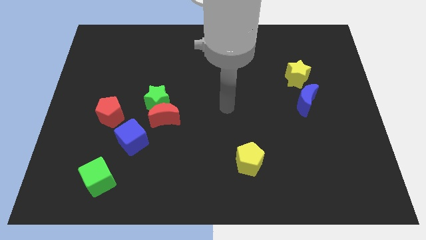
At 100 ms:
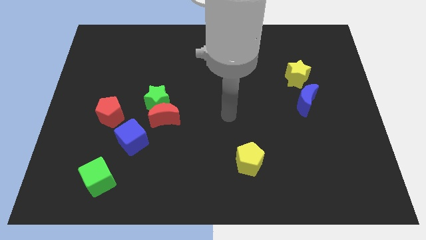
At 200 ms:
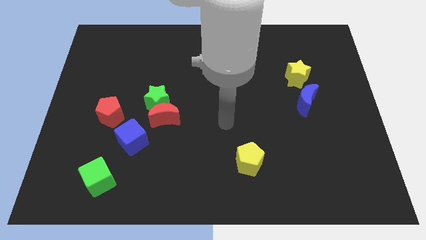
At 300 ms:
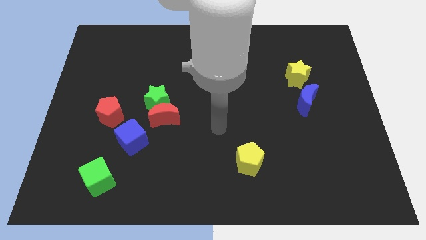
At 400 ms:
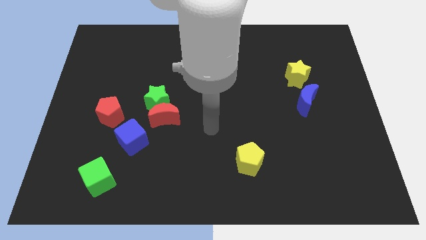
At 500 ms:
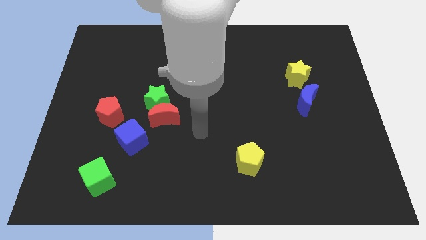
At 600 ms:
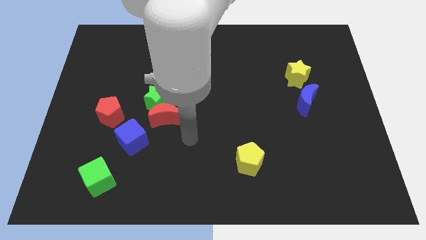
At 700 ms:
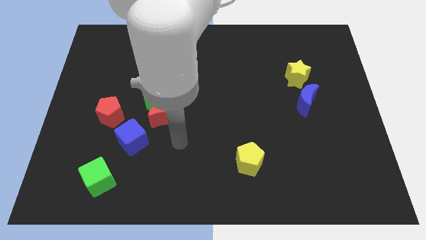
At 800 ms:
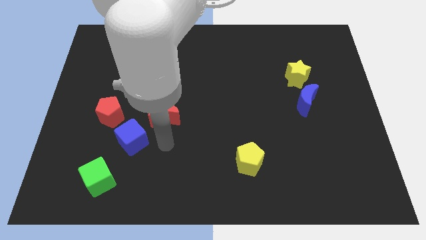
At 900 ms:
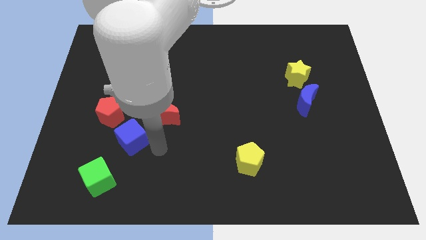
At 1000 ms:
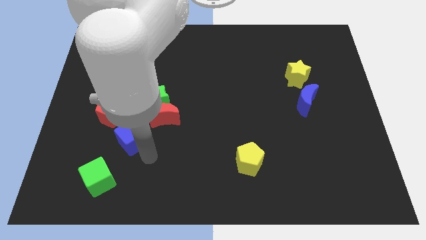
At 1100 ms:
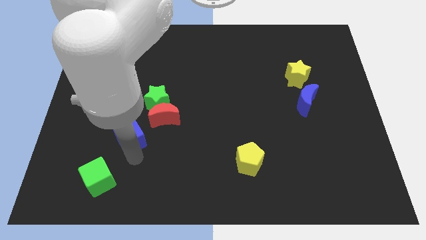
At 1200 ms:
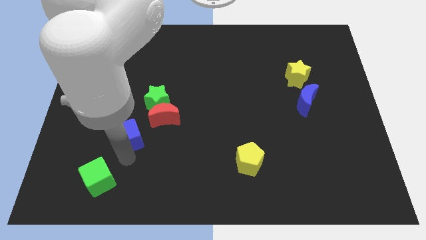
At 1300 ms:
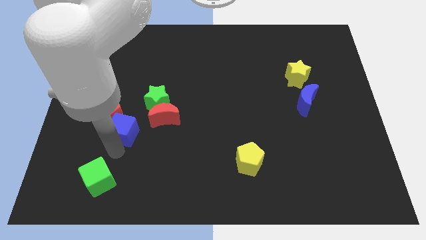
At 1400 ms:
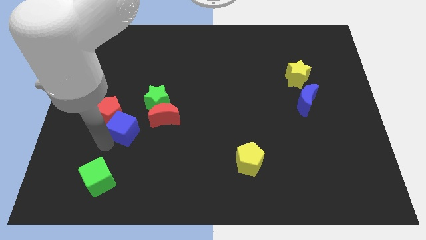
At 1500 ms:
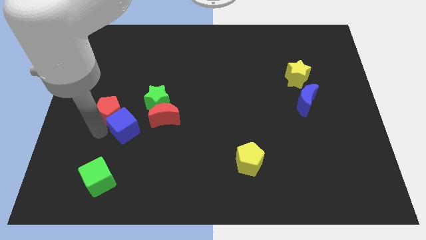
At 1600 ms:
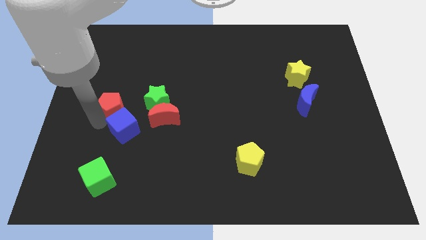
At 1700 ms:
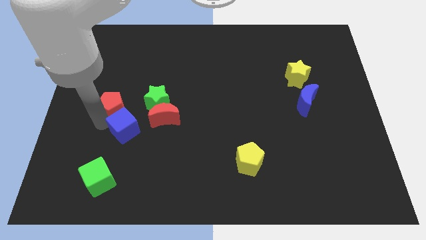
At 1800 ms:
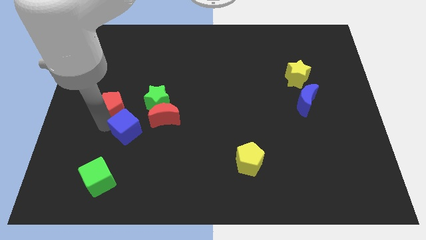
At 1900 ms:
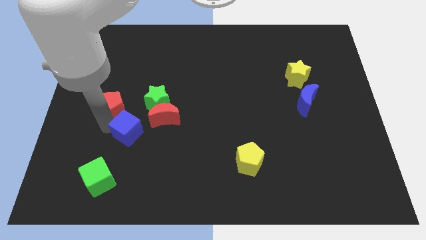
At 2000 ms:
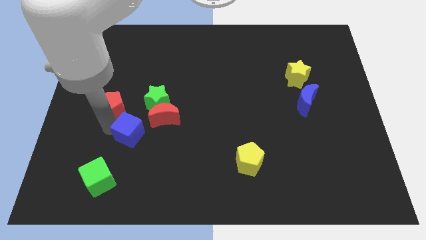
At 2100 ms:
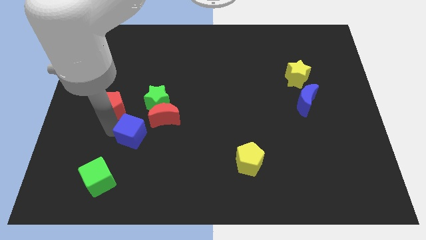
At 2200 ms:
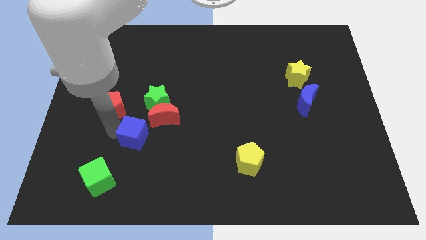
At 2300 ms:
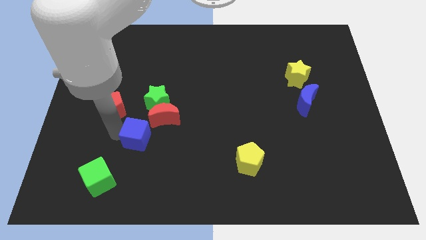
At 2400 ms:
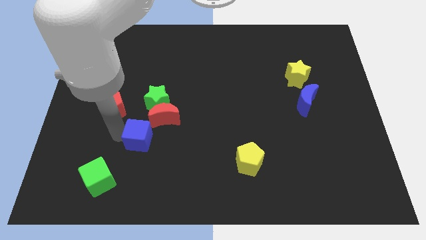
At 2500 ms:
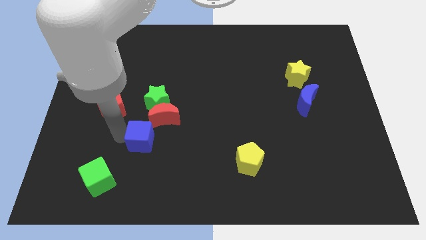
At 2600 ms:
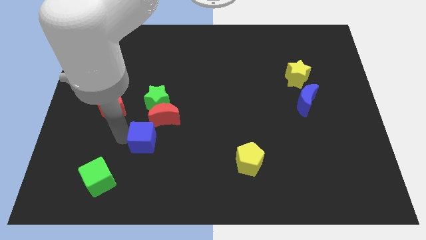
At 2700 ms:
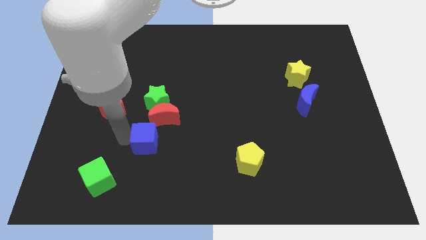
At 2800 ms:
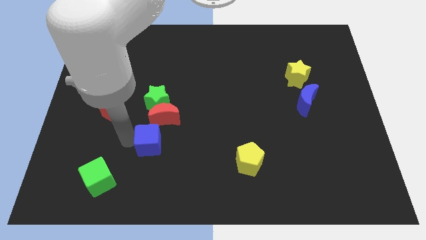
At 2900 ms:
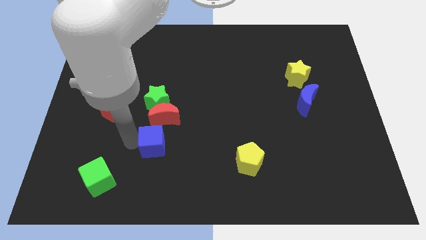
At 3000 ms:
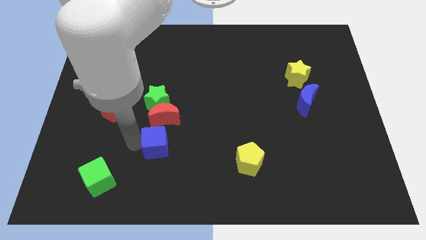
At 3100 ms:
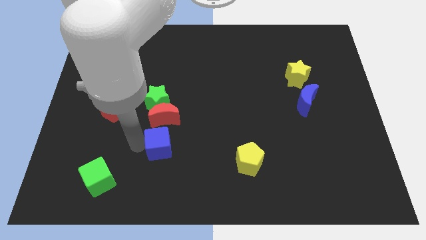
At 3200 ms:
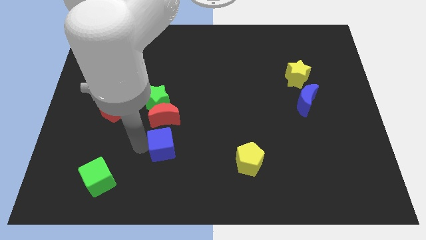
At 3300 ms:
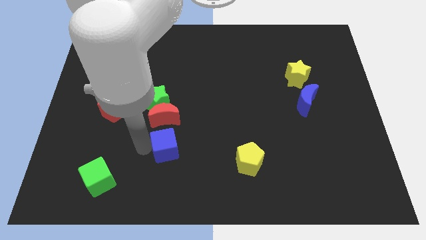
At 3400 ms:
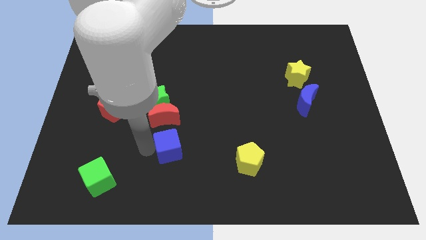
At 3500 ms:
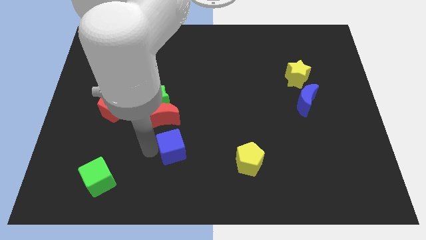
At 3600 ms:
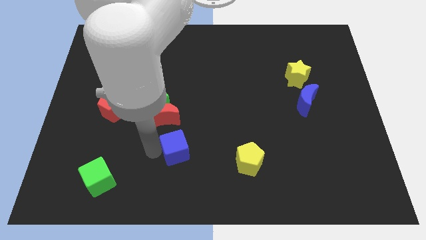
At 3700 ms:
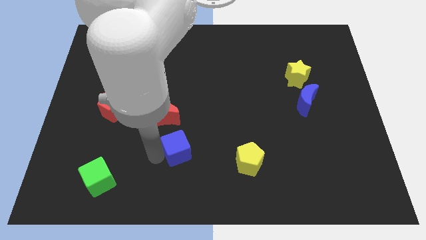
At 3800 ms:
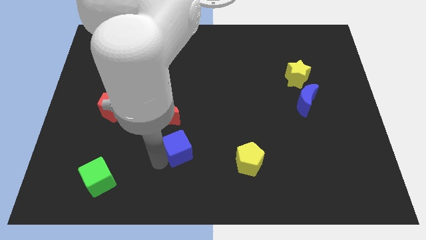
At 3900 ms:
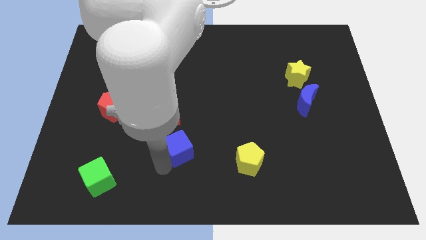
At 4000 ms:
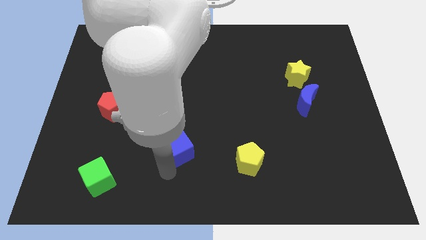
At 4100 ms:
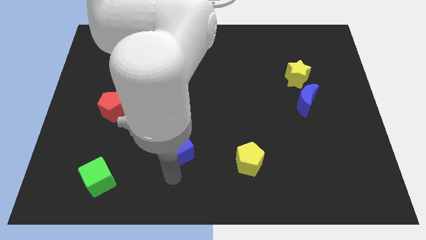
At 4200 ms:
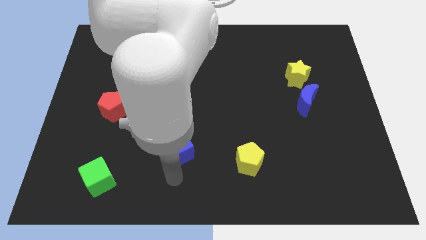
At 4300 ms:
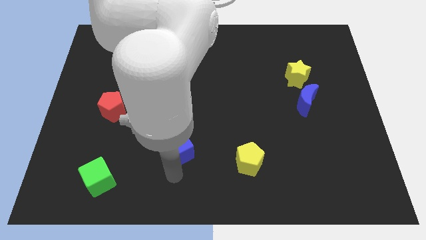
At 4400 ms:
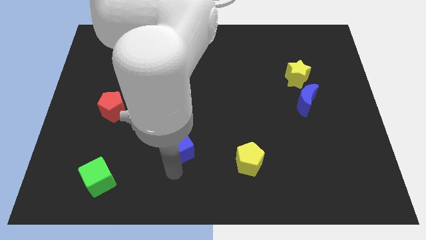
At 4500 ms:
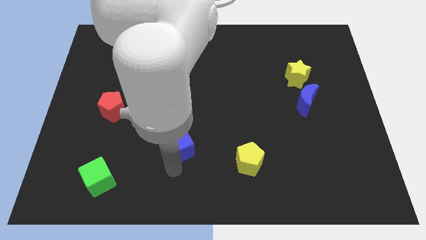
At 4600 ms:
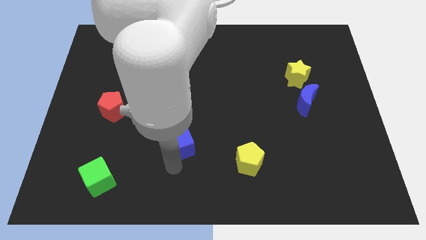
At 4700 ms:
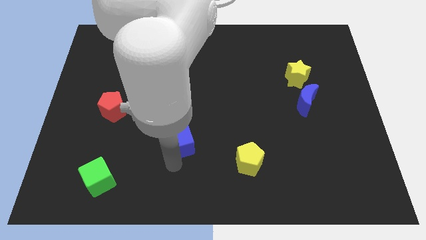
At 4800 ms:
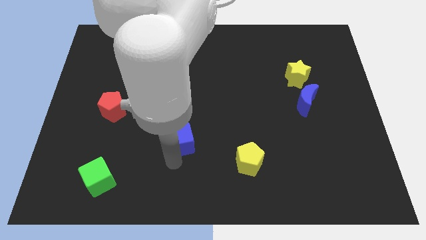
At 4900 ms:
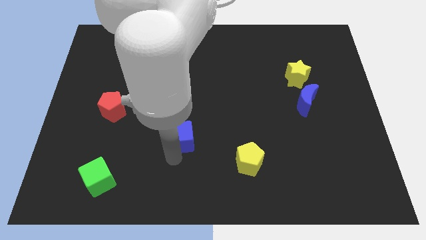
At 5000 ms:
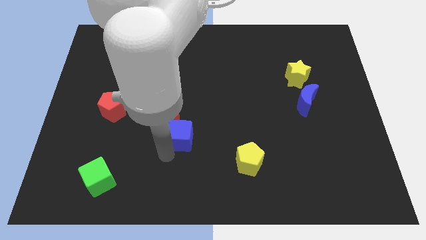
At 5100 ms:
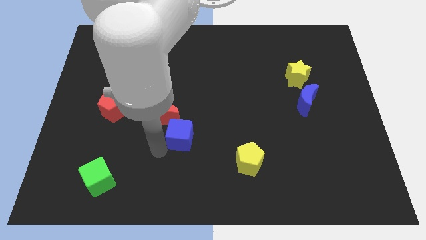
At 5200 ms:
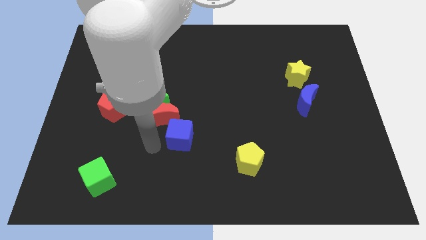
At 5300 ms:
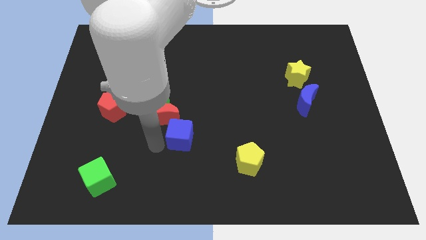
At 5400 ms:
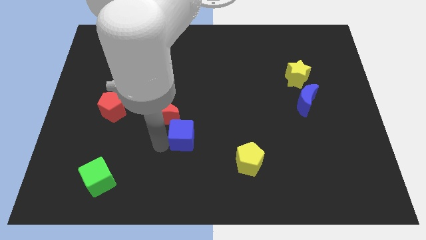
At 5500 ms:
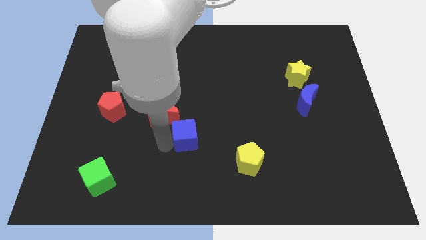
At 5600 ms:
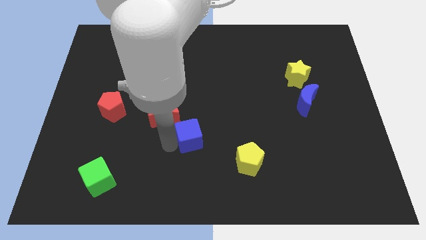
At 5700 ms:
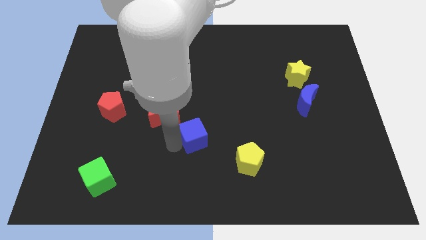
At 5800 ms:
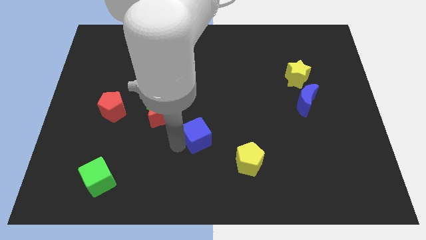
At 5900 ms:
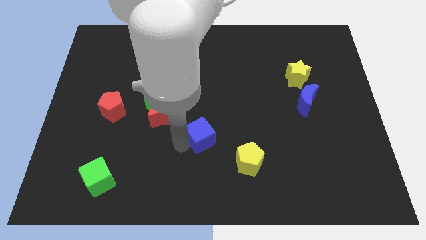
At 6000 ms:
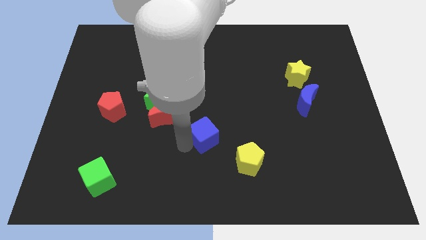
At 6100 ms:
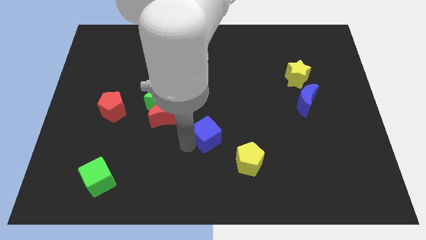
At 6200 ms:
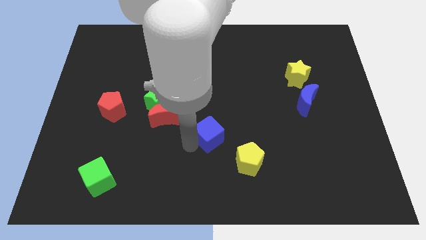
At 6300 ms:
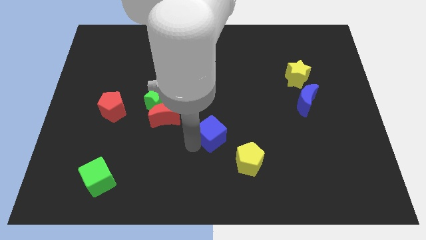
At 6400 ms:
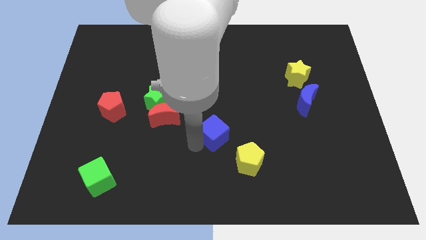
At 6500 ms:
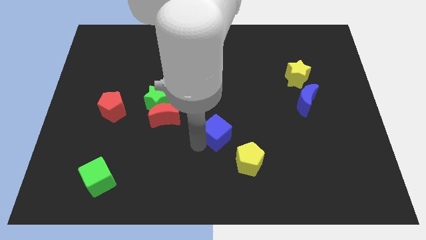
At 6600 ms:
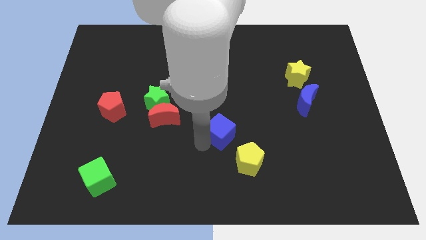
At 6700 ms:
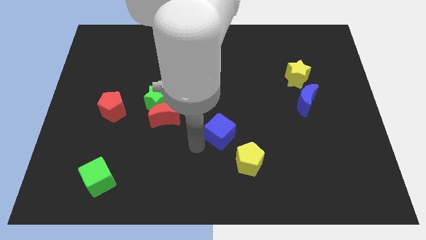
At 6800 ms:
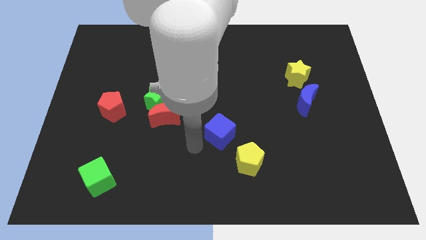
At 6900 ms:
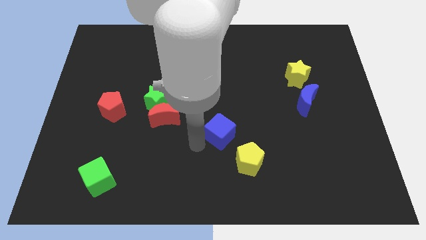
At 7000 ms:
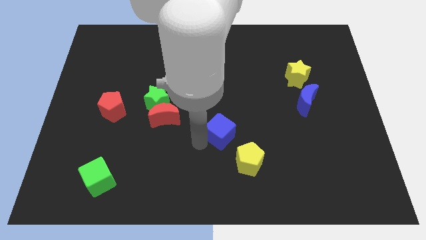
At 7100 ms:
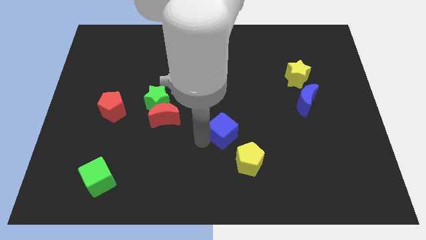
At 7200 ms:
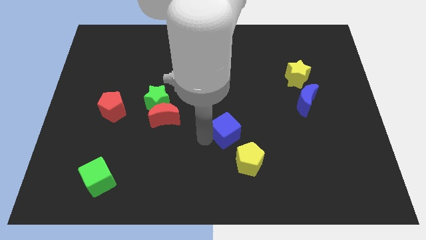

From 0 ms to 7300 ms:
put the blue cube to the top side of the yellow pentagon
